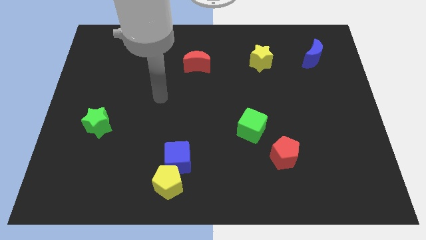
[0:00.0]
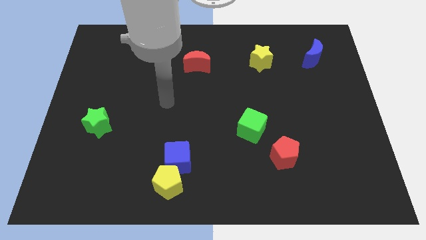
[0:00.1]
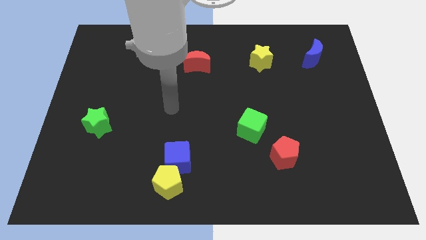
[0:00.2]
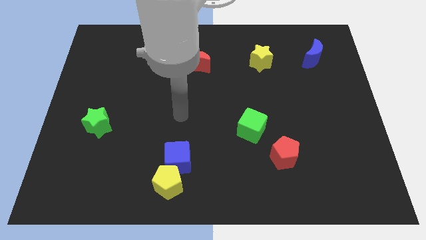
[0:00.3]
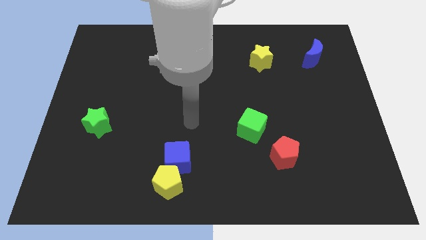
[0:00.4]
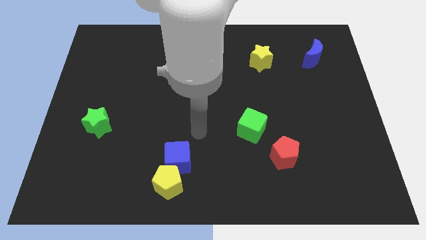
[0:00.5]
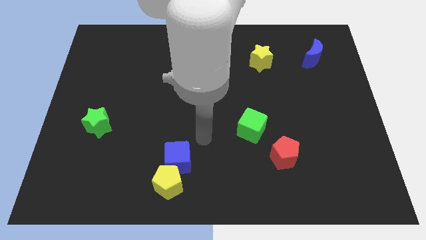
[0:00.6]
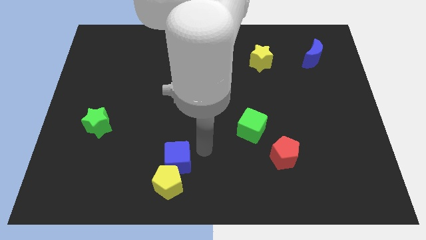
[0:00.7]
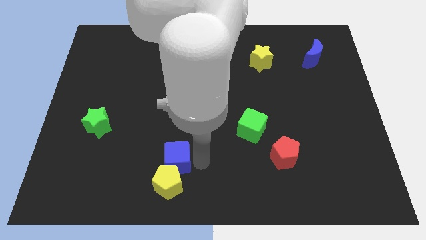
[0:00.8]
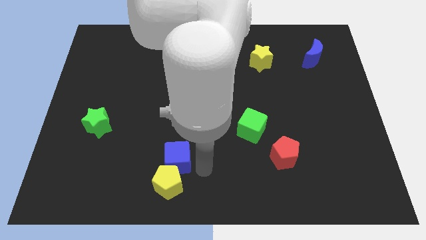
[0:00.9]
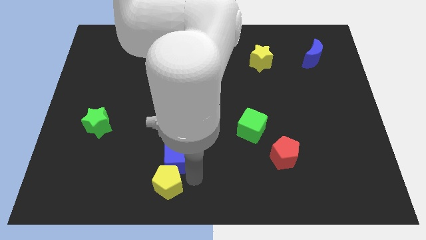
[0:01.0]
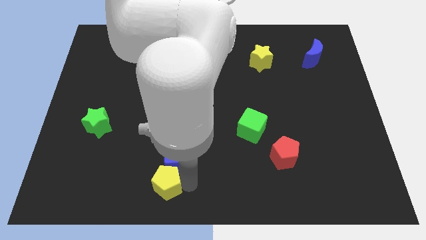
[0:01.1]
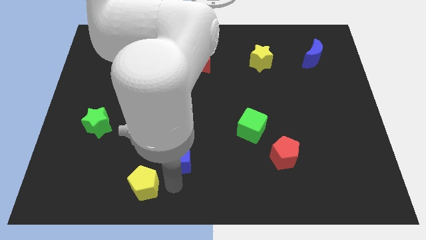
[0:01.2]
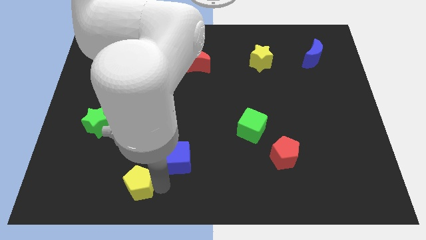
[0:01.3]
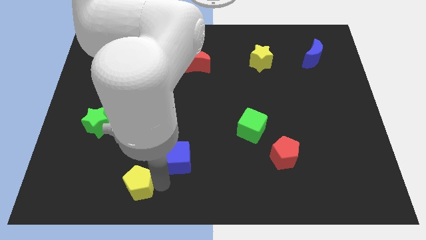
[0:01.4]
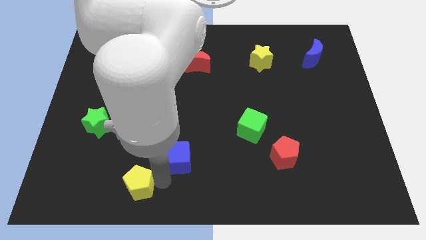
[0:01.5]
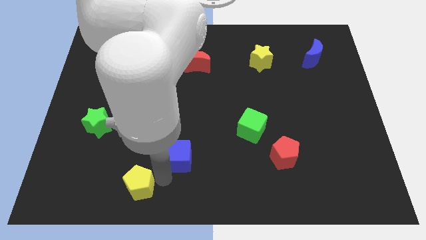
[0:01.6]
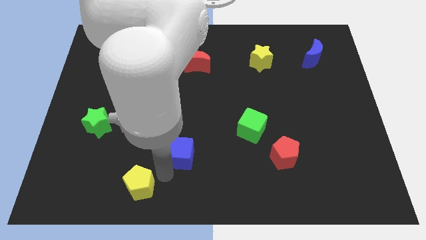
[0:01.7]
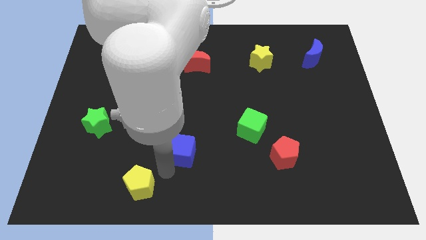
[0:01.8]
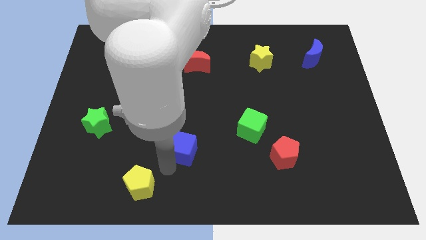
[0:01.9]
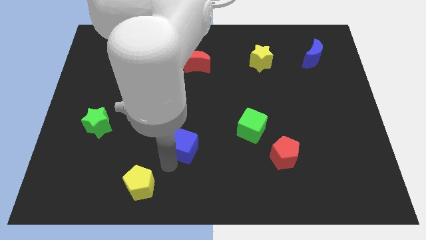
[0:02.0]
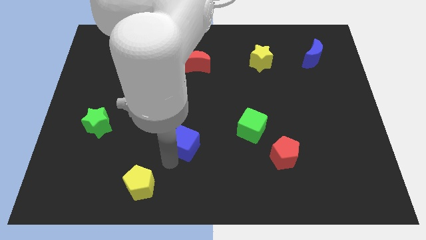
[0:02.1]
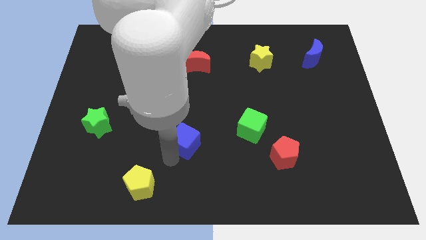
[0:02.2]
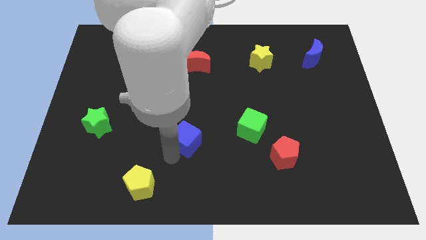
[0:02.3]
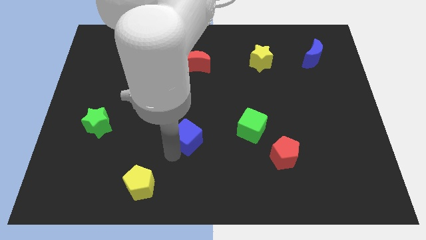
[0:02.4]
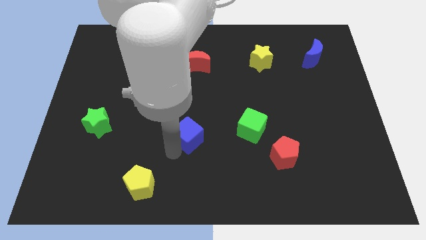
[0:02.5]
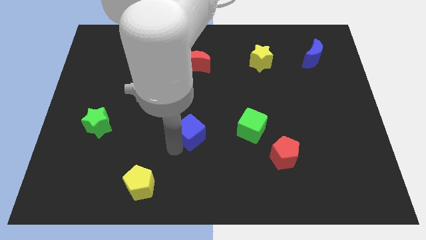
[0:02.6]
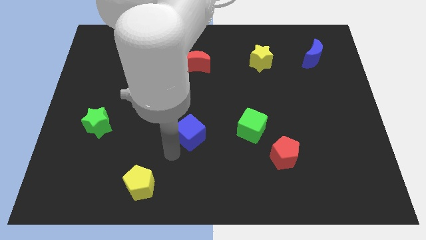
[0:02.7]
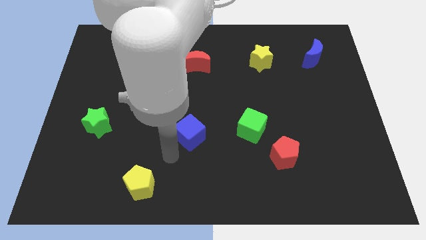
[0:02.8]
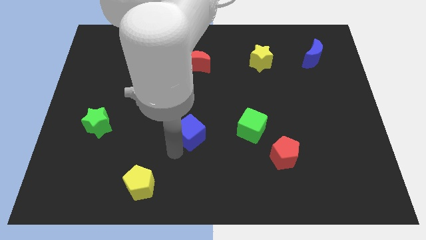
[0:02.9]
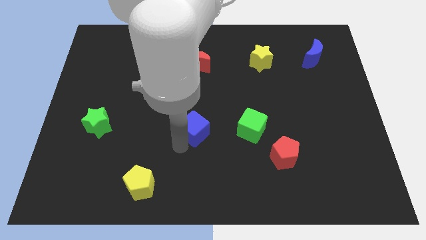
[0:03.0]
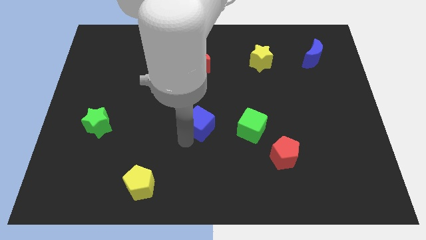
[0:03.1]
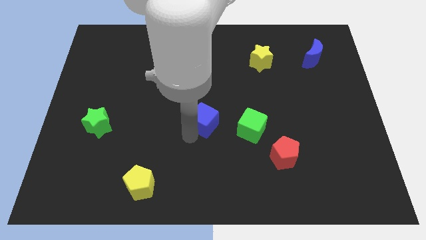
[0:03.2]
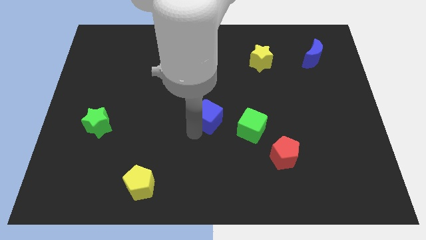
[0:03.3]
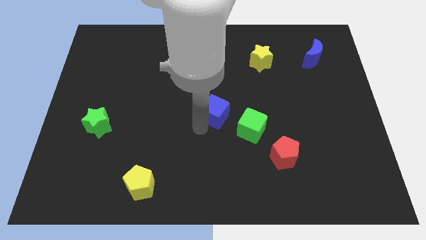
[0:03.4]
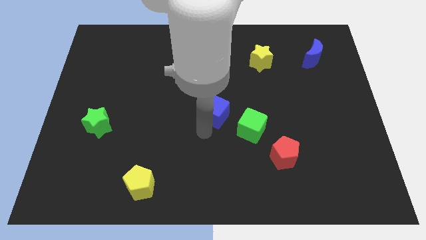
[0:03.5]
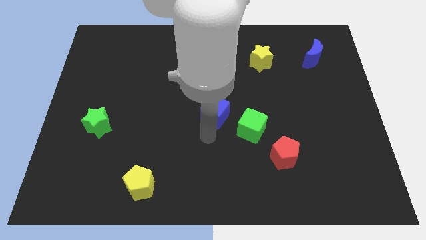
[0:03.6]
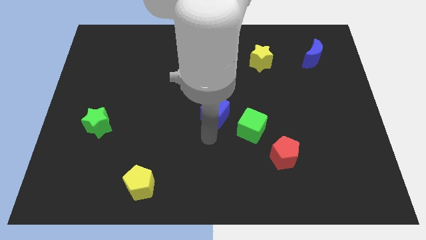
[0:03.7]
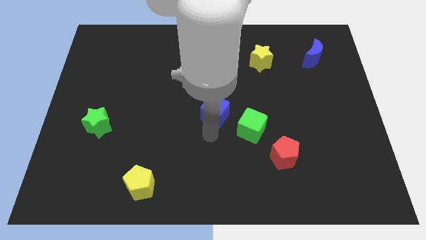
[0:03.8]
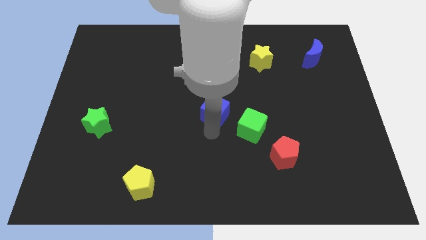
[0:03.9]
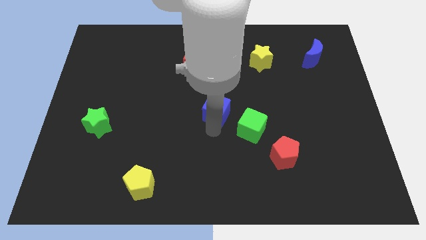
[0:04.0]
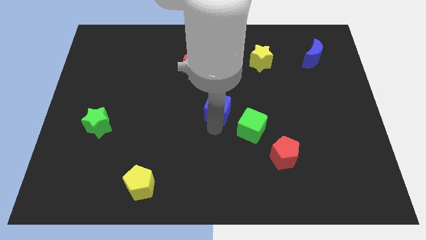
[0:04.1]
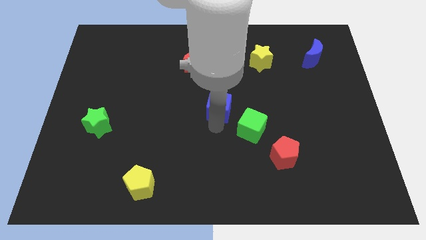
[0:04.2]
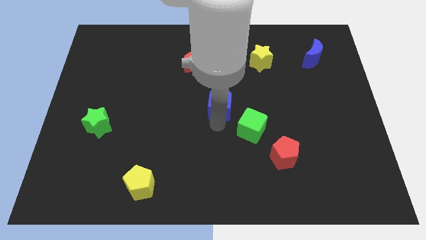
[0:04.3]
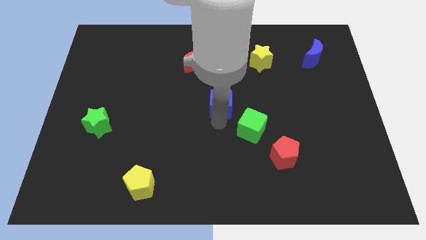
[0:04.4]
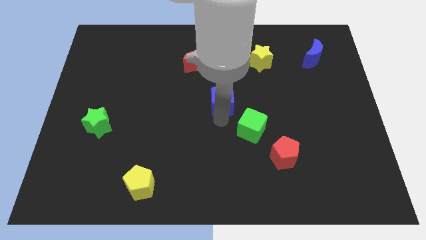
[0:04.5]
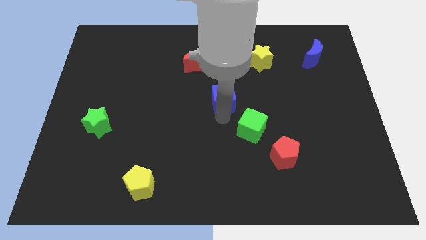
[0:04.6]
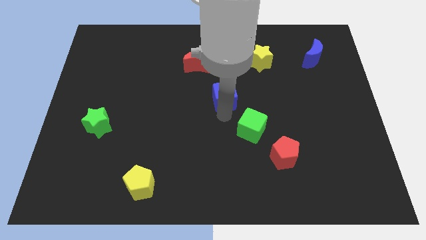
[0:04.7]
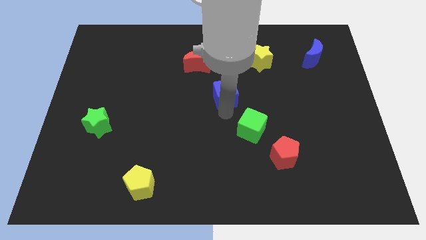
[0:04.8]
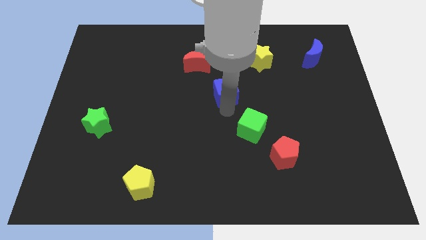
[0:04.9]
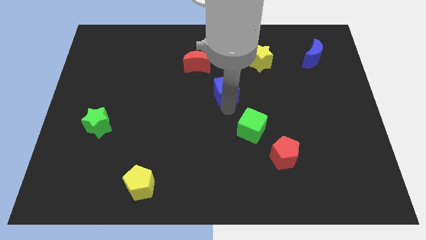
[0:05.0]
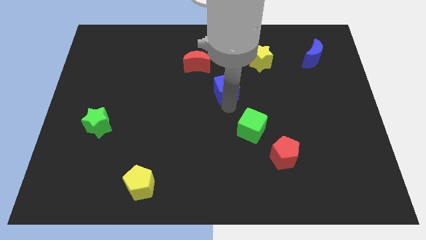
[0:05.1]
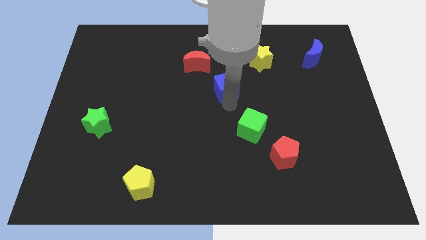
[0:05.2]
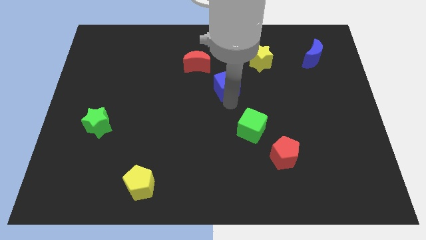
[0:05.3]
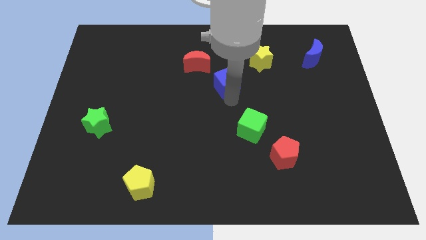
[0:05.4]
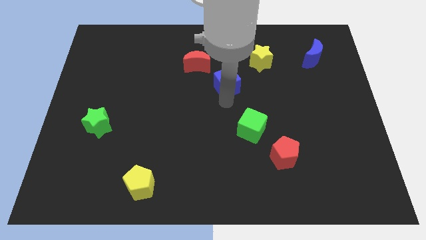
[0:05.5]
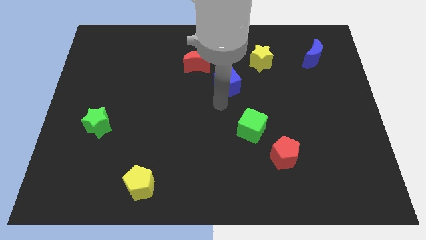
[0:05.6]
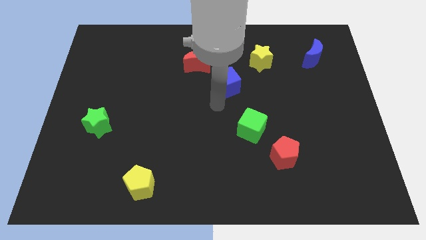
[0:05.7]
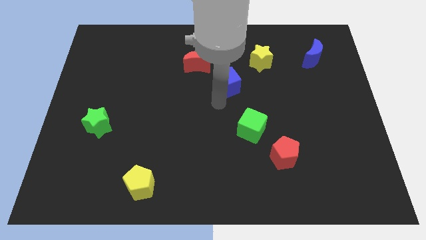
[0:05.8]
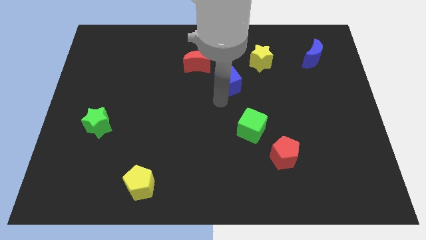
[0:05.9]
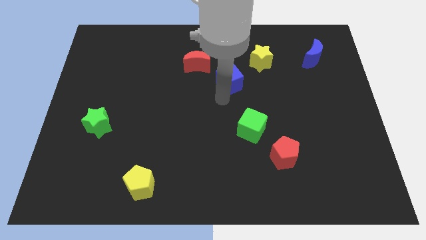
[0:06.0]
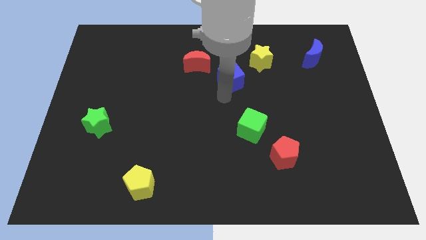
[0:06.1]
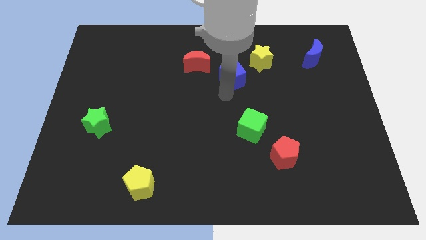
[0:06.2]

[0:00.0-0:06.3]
slide the blue cube right of the red moon
